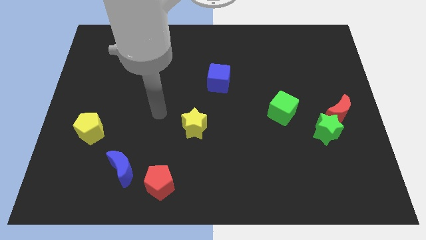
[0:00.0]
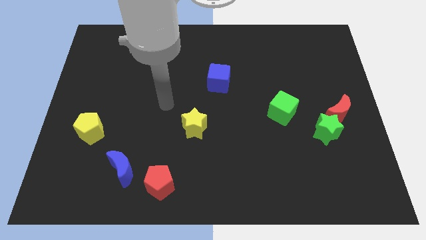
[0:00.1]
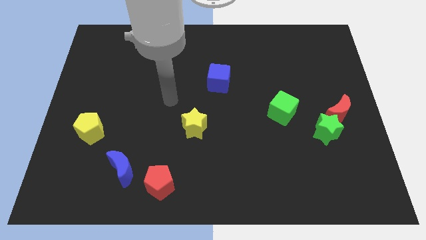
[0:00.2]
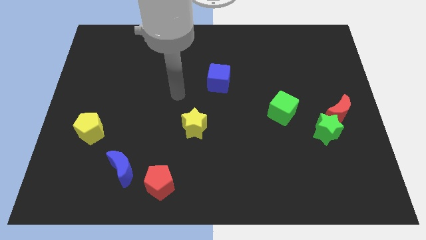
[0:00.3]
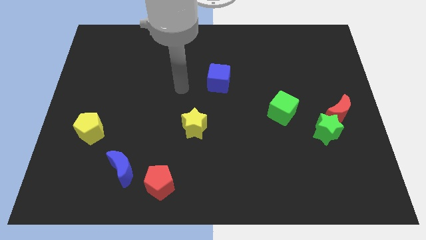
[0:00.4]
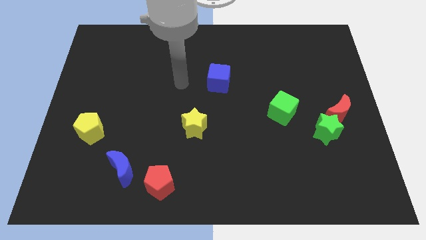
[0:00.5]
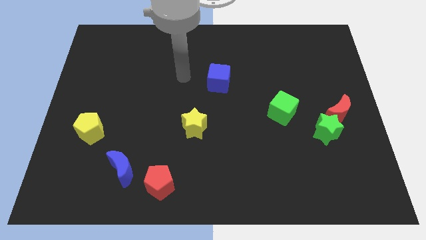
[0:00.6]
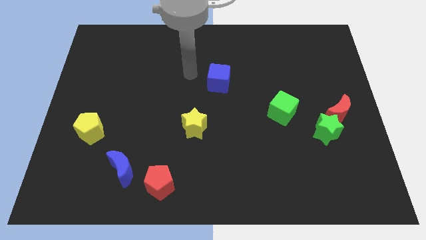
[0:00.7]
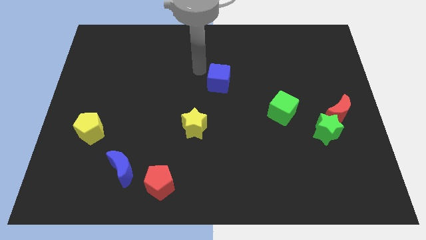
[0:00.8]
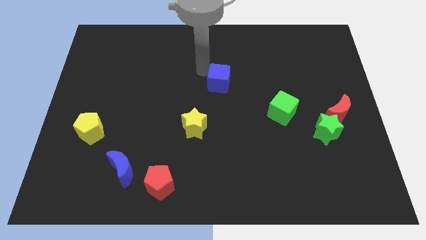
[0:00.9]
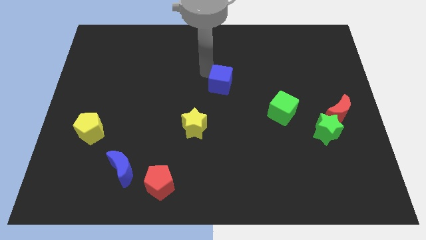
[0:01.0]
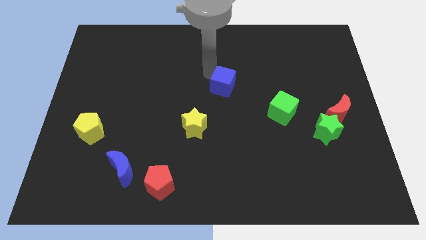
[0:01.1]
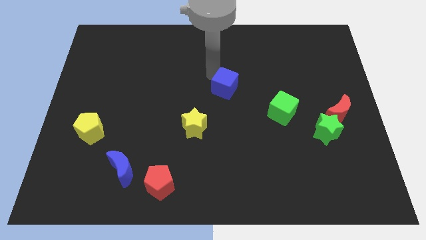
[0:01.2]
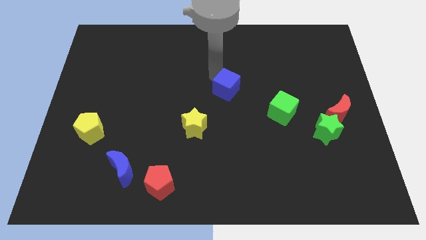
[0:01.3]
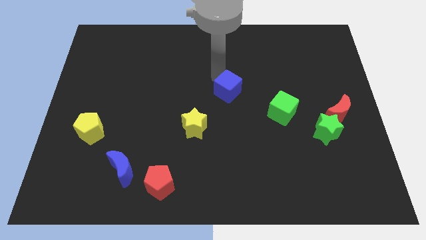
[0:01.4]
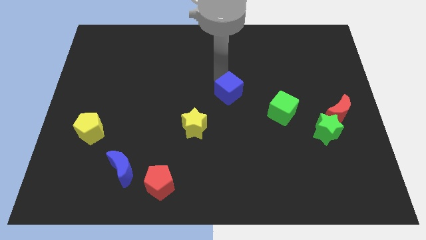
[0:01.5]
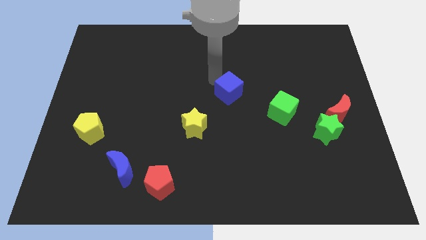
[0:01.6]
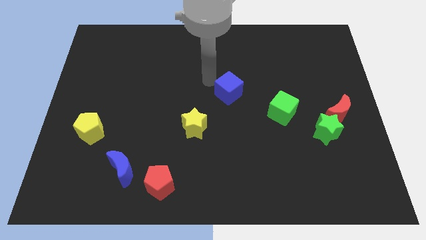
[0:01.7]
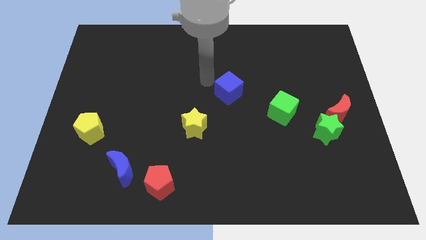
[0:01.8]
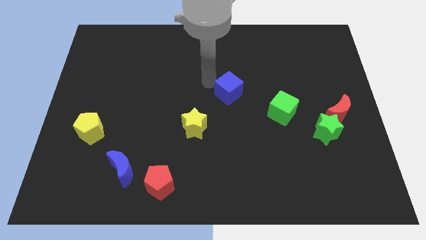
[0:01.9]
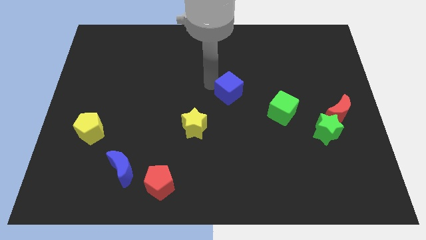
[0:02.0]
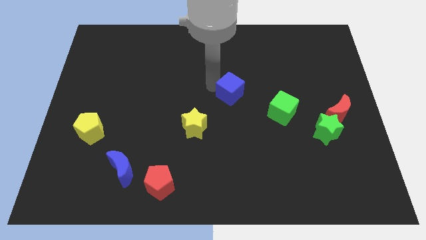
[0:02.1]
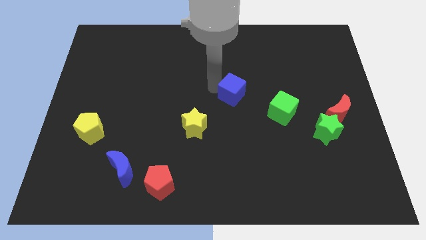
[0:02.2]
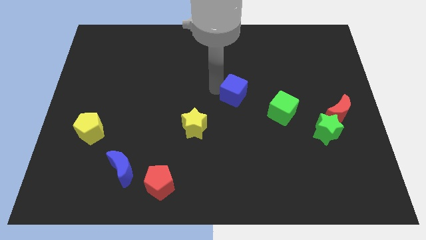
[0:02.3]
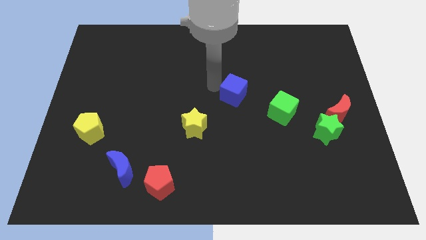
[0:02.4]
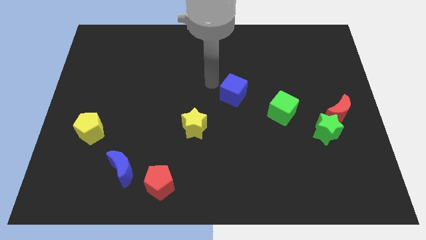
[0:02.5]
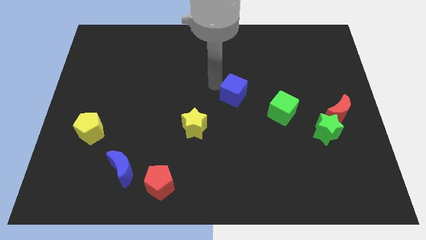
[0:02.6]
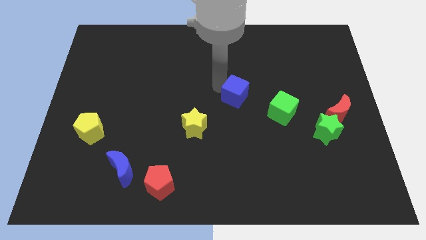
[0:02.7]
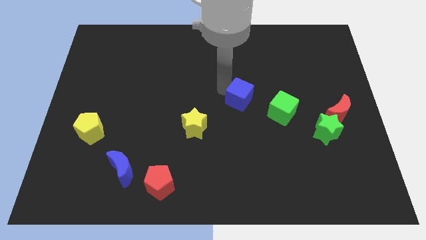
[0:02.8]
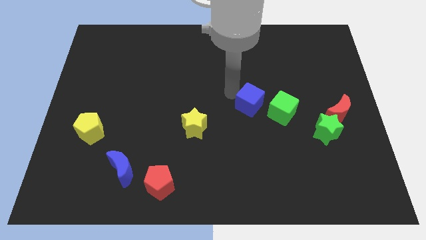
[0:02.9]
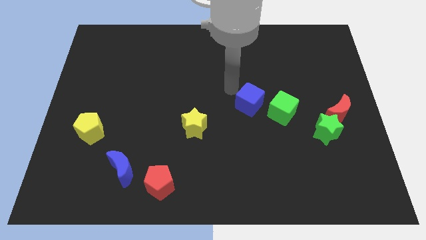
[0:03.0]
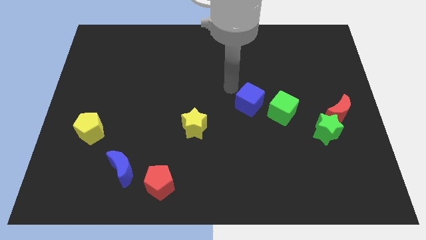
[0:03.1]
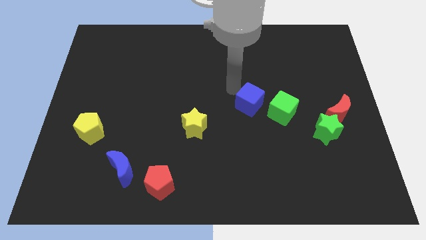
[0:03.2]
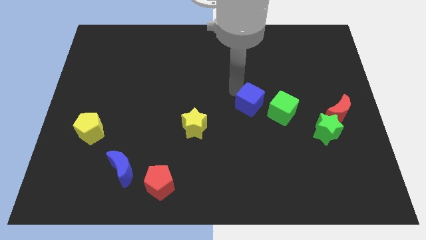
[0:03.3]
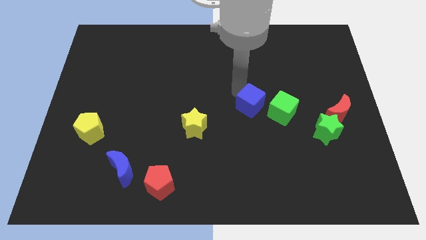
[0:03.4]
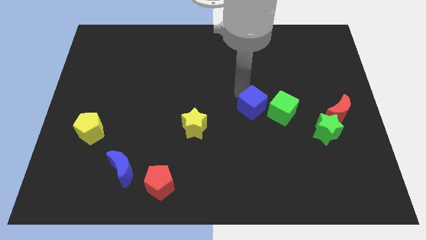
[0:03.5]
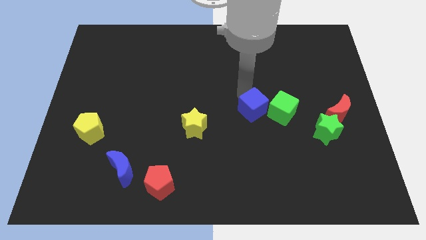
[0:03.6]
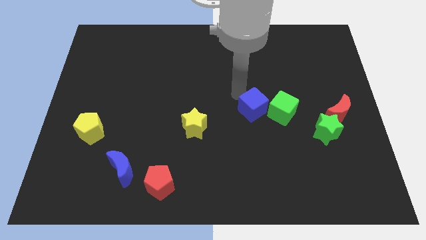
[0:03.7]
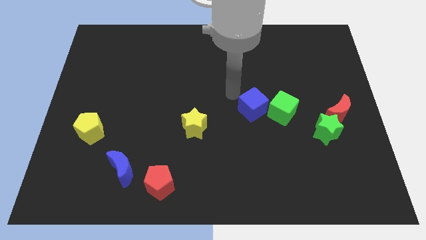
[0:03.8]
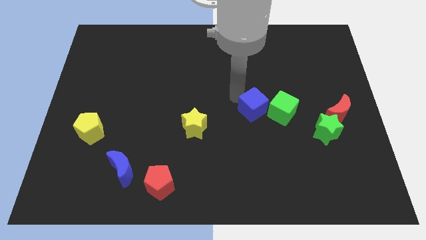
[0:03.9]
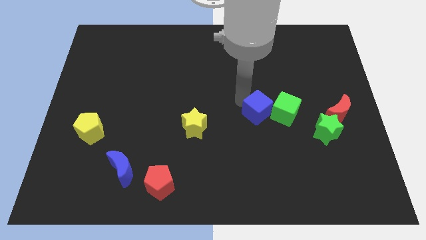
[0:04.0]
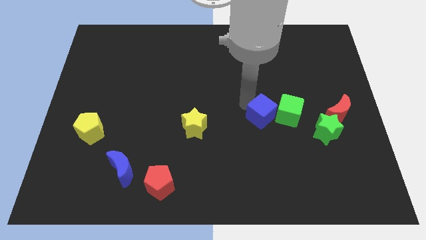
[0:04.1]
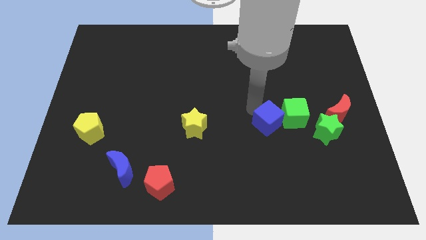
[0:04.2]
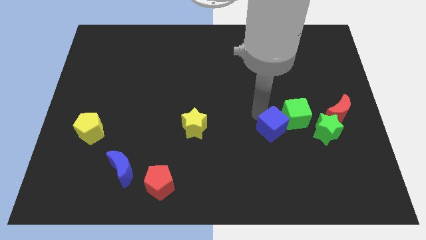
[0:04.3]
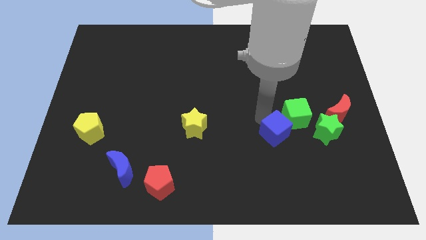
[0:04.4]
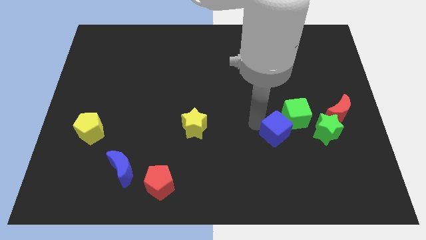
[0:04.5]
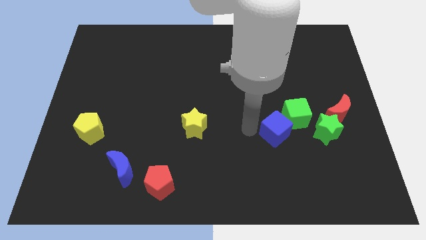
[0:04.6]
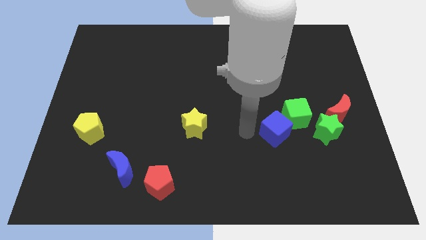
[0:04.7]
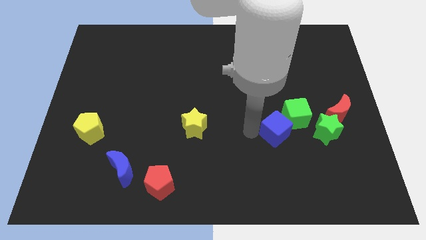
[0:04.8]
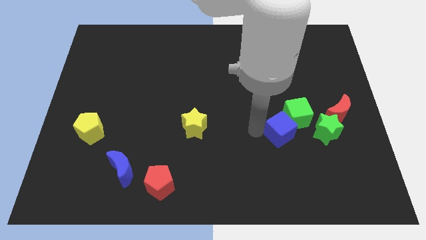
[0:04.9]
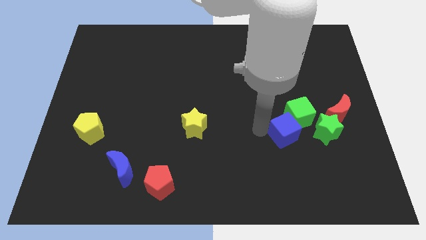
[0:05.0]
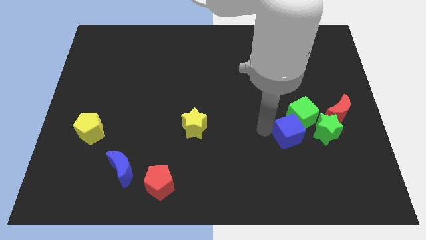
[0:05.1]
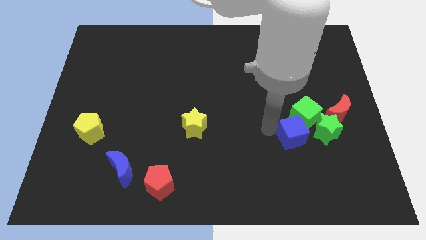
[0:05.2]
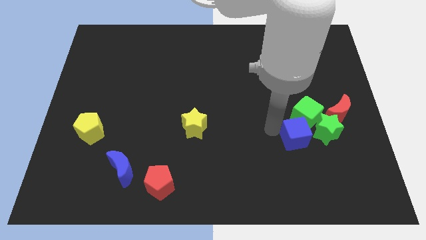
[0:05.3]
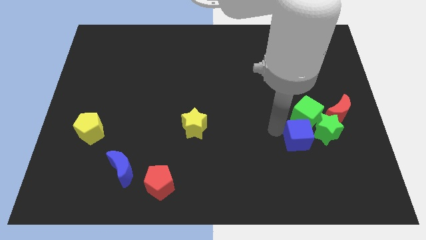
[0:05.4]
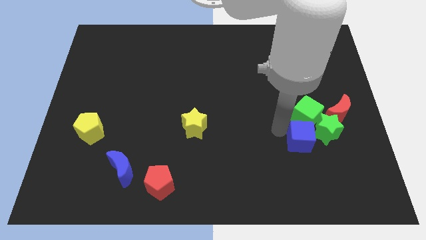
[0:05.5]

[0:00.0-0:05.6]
push the blue cube next to the green star

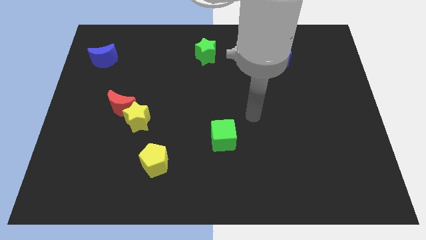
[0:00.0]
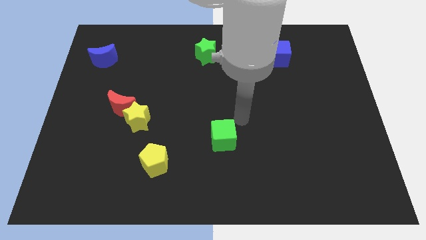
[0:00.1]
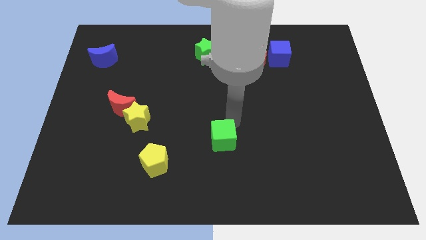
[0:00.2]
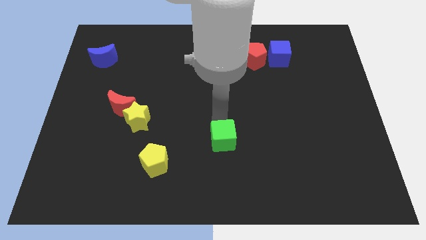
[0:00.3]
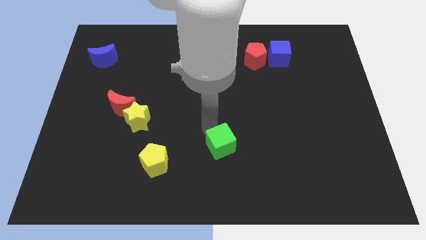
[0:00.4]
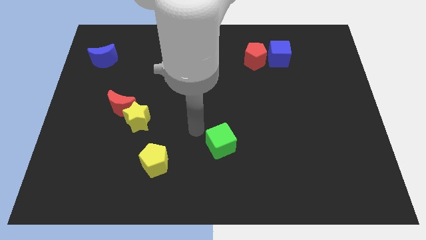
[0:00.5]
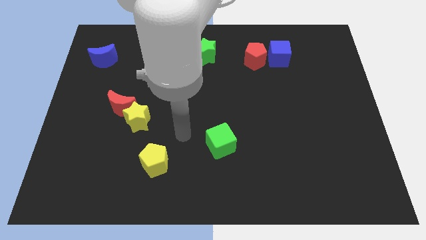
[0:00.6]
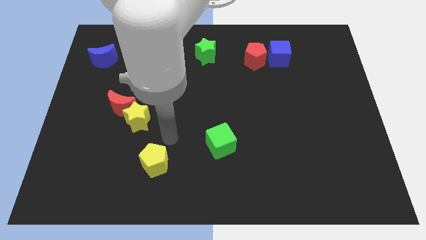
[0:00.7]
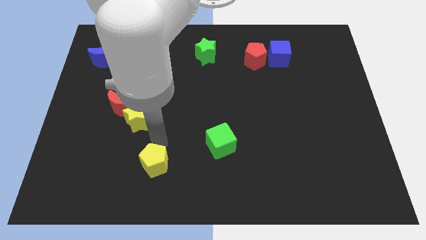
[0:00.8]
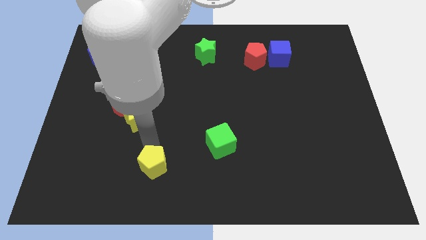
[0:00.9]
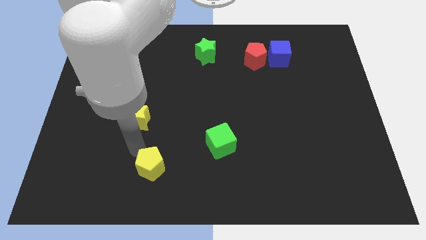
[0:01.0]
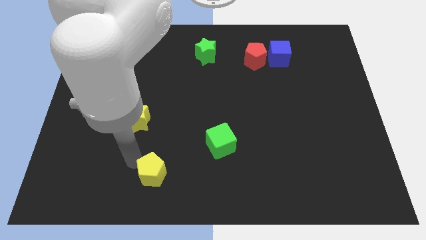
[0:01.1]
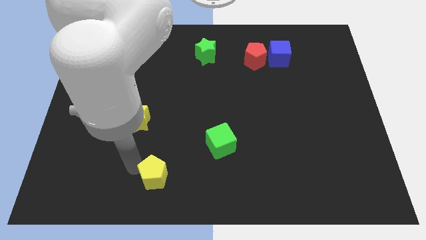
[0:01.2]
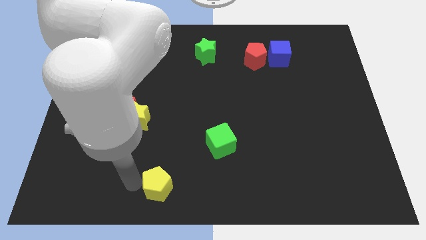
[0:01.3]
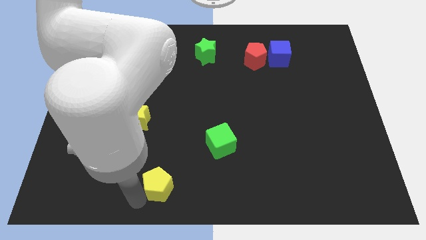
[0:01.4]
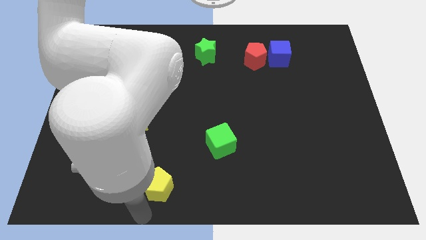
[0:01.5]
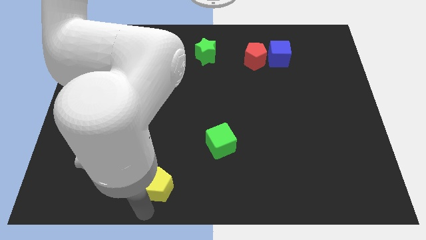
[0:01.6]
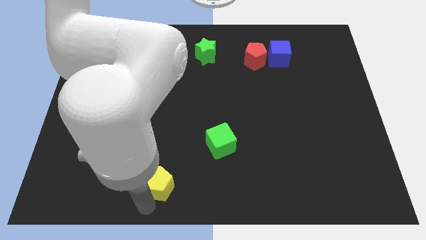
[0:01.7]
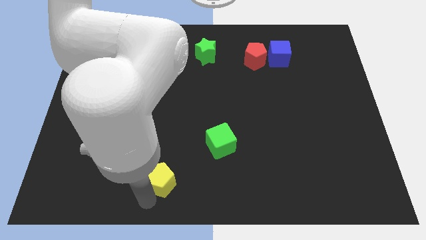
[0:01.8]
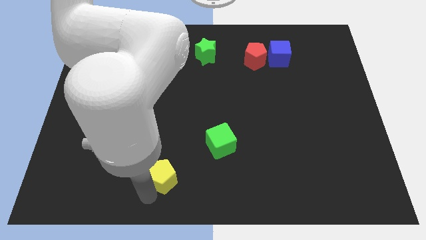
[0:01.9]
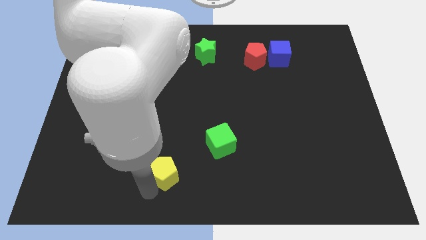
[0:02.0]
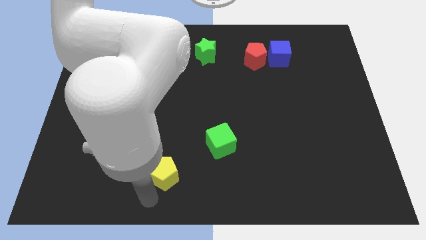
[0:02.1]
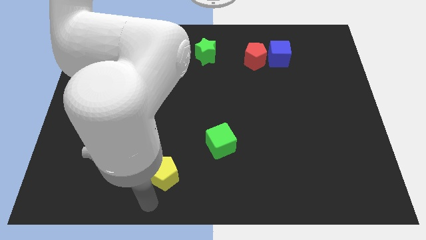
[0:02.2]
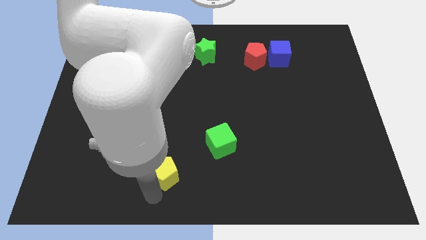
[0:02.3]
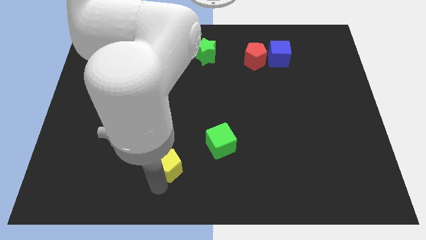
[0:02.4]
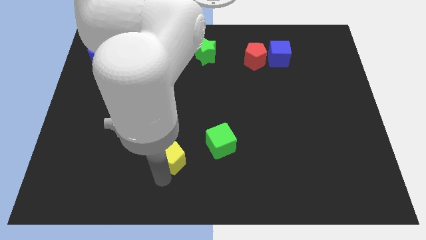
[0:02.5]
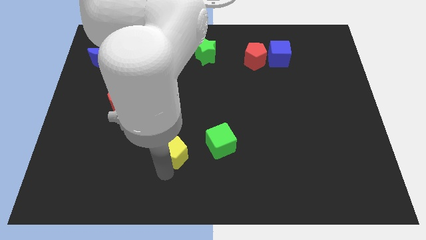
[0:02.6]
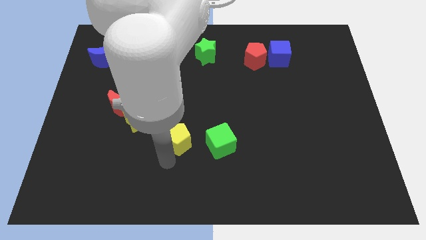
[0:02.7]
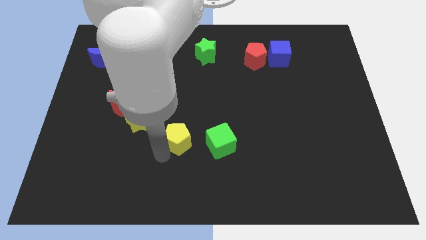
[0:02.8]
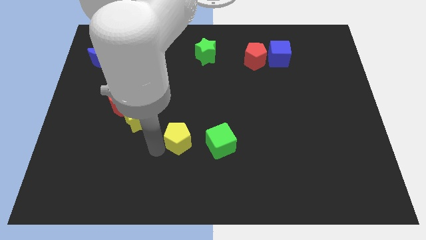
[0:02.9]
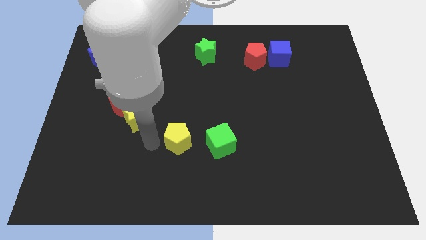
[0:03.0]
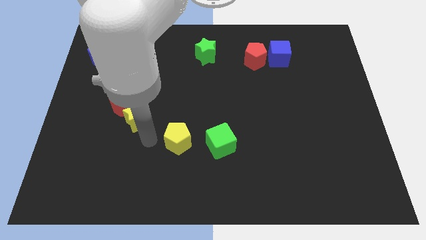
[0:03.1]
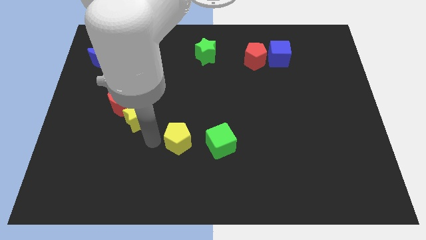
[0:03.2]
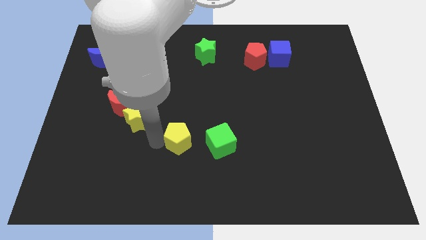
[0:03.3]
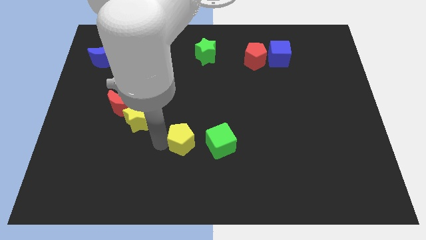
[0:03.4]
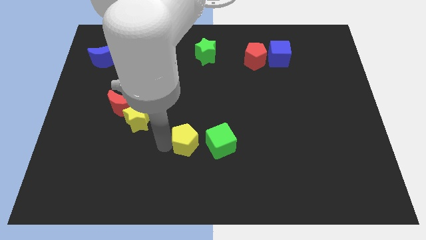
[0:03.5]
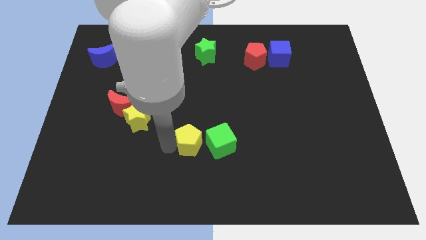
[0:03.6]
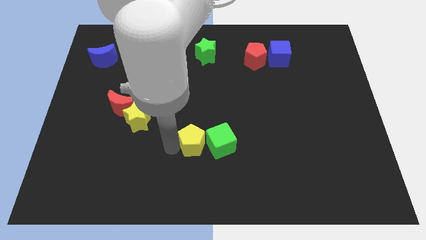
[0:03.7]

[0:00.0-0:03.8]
slide the yellow pentagon to the green cube
